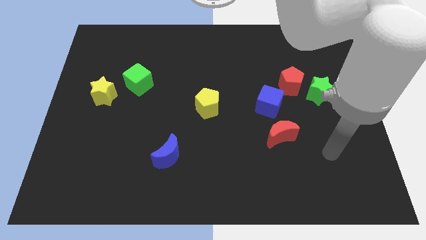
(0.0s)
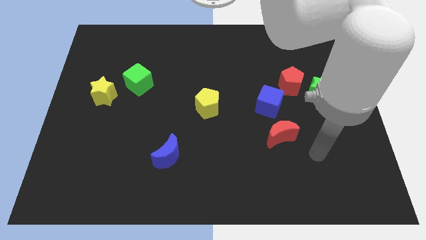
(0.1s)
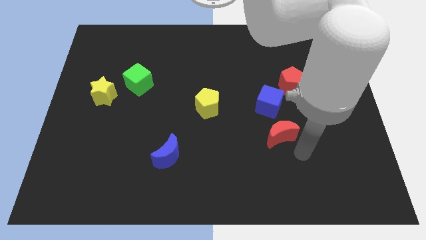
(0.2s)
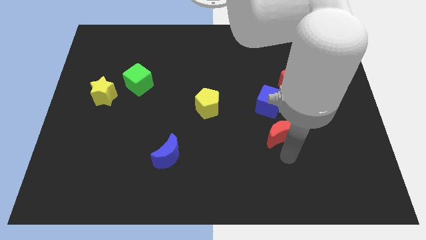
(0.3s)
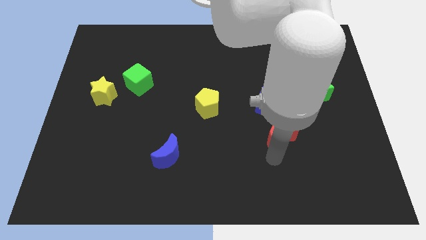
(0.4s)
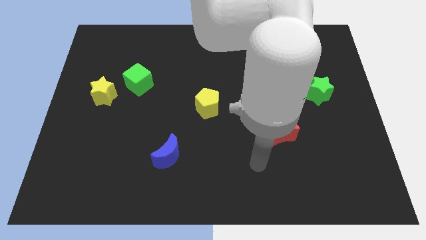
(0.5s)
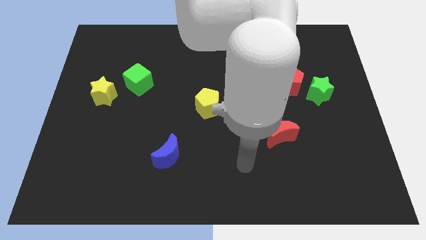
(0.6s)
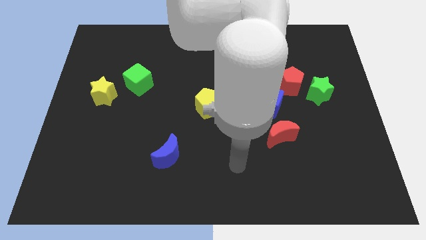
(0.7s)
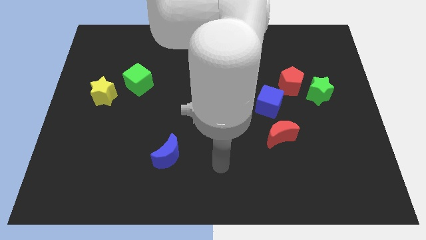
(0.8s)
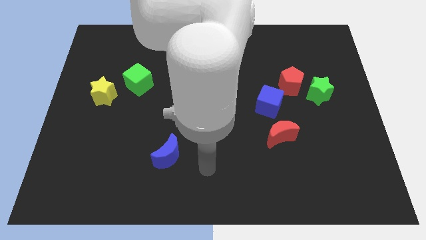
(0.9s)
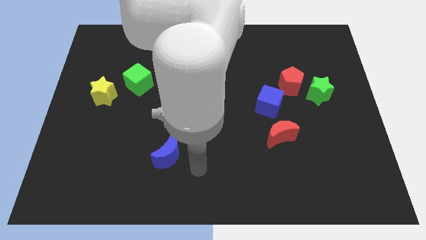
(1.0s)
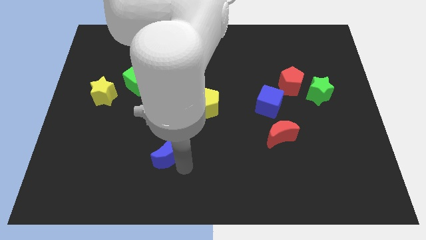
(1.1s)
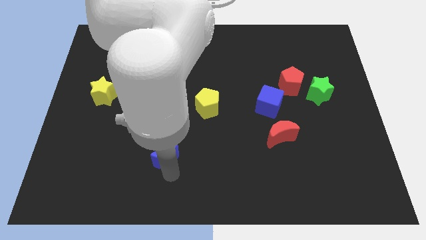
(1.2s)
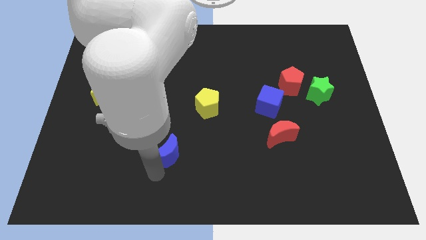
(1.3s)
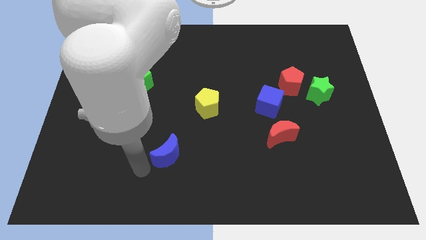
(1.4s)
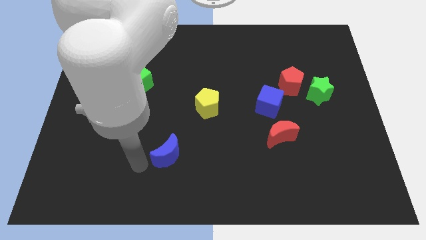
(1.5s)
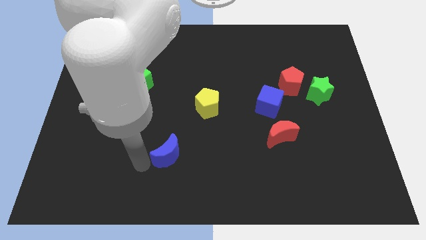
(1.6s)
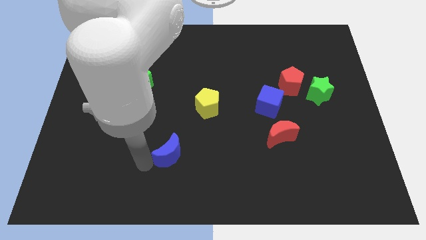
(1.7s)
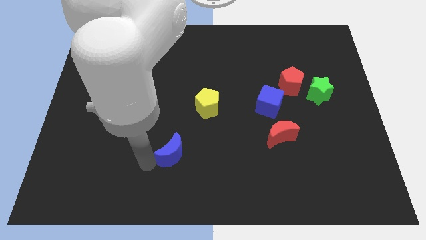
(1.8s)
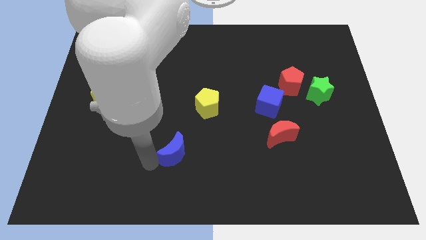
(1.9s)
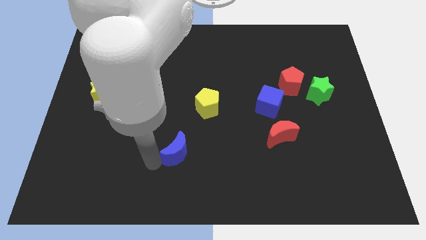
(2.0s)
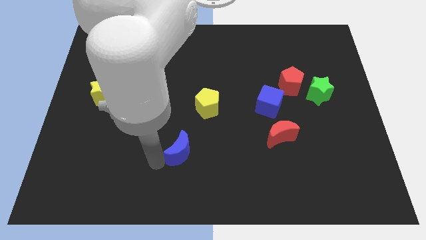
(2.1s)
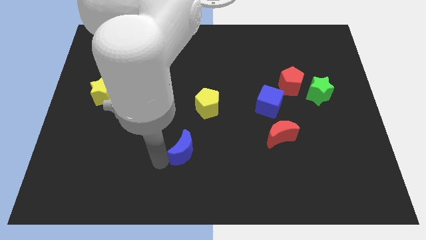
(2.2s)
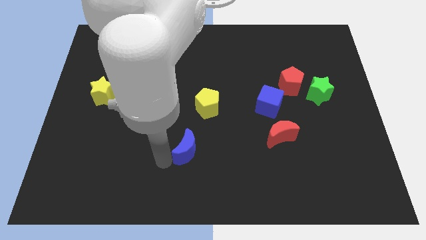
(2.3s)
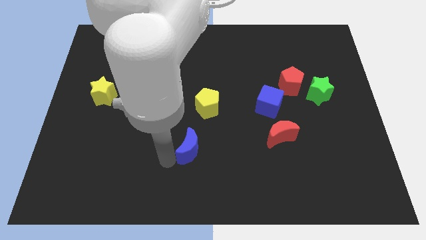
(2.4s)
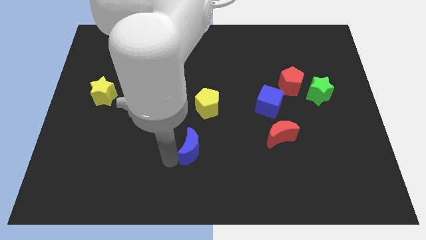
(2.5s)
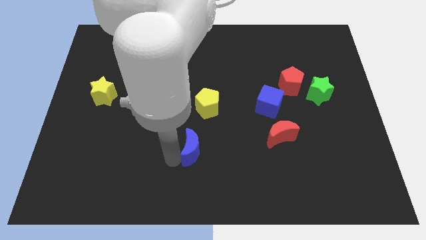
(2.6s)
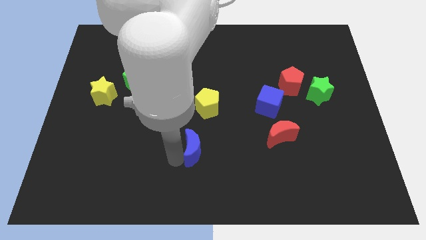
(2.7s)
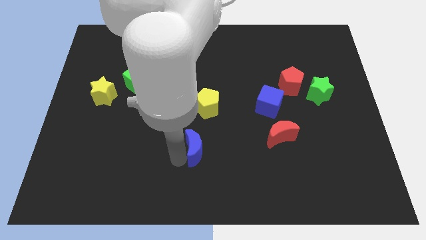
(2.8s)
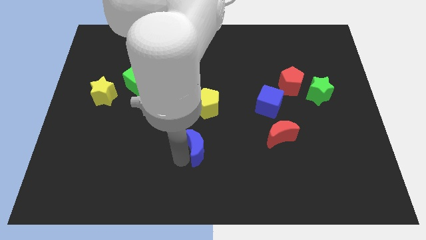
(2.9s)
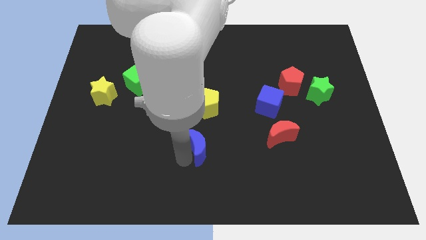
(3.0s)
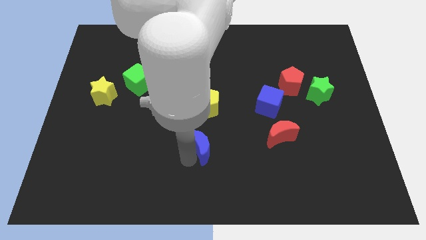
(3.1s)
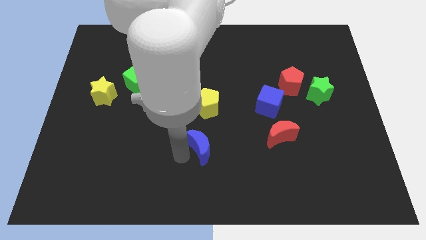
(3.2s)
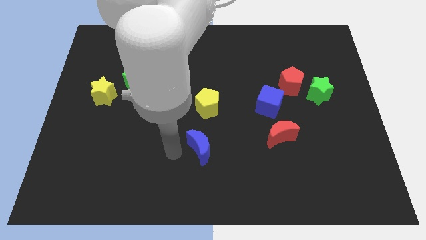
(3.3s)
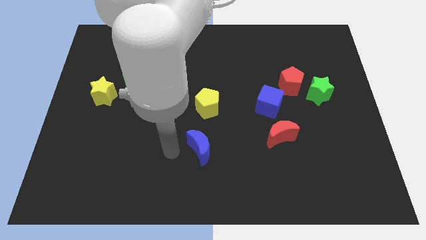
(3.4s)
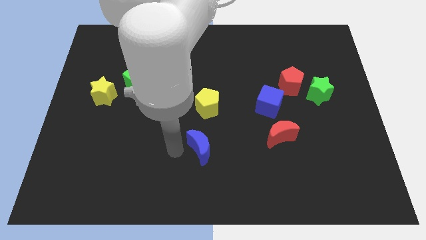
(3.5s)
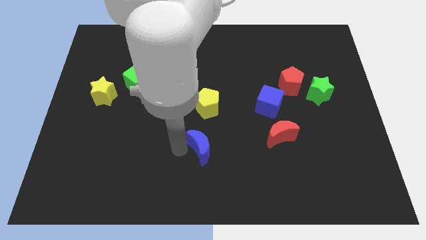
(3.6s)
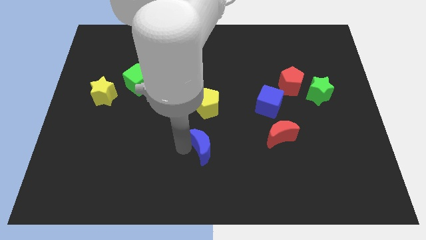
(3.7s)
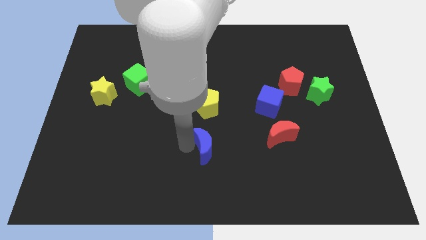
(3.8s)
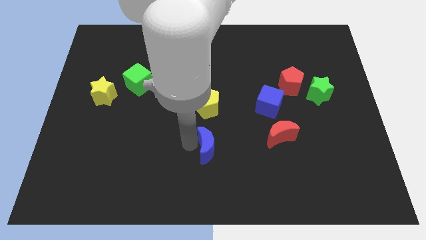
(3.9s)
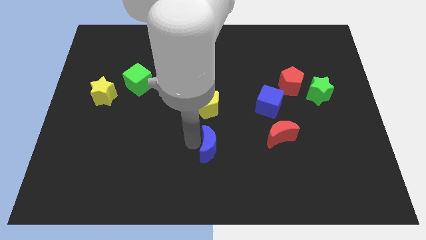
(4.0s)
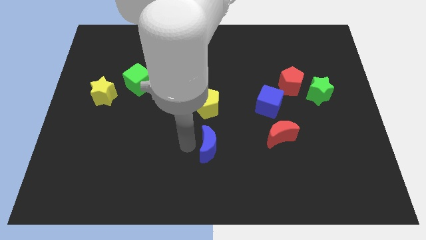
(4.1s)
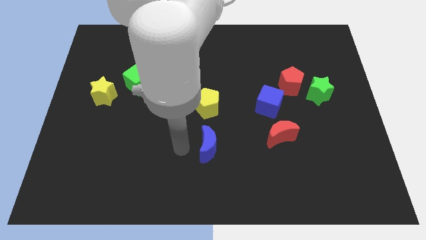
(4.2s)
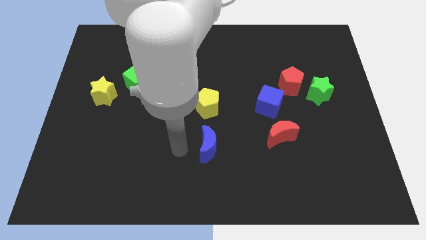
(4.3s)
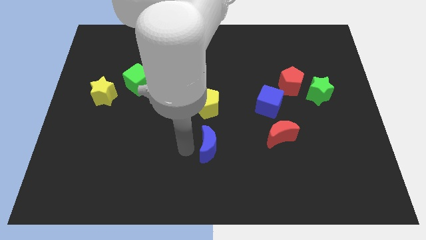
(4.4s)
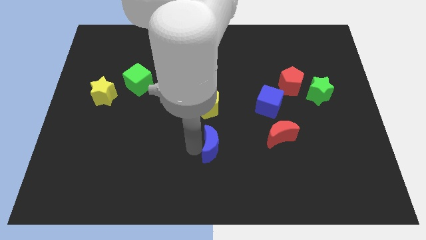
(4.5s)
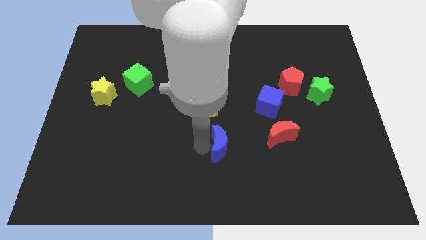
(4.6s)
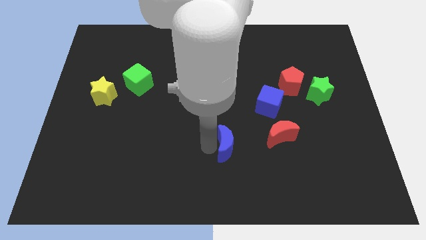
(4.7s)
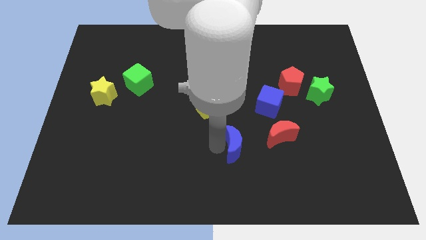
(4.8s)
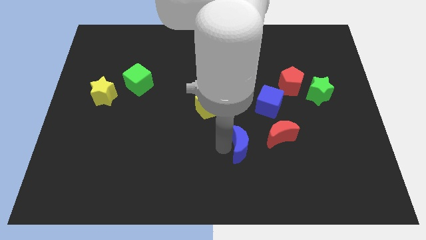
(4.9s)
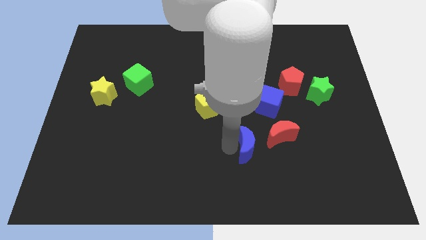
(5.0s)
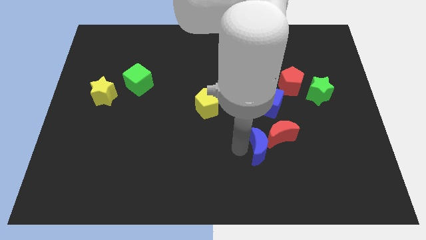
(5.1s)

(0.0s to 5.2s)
slide the blue moon towards the red moon

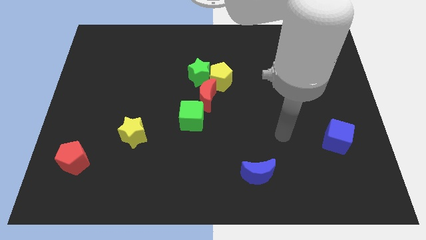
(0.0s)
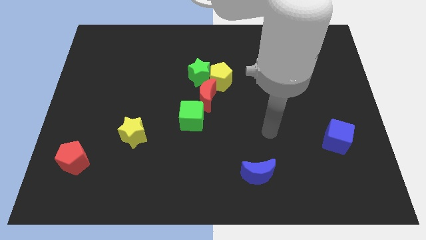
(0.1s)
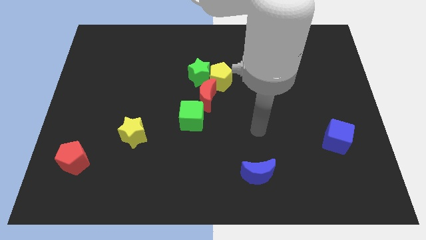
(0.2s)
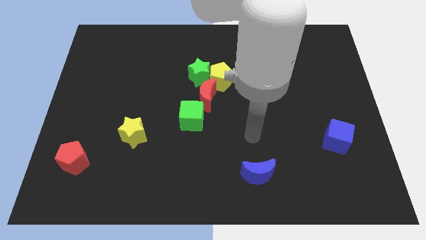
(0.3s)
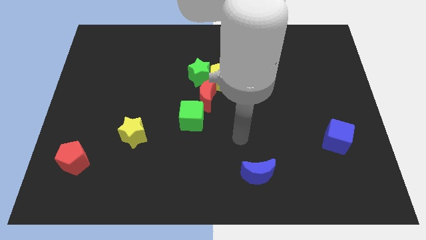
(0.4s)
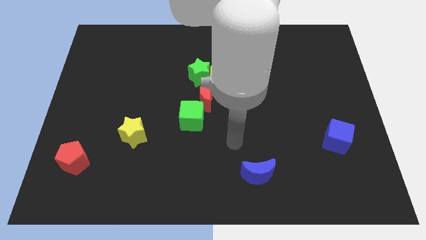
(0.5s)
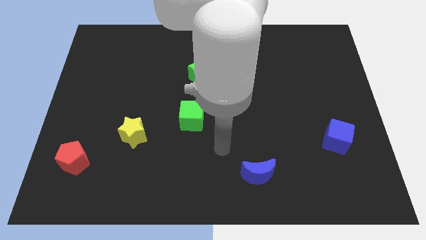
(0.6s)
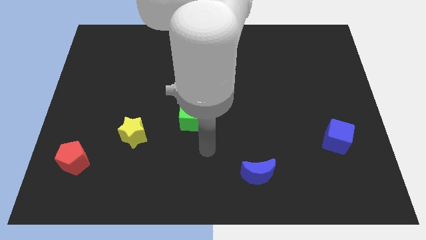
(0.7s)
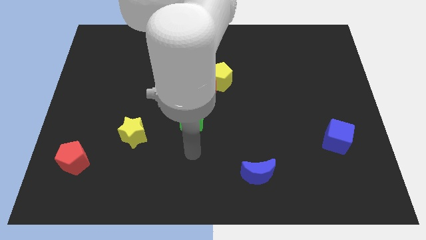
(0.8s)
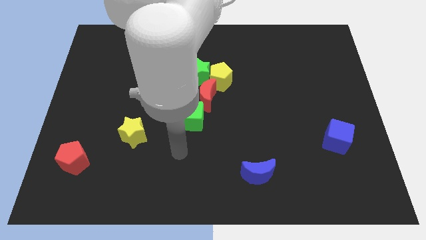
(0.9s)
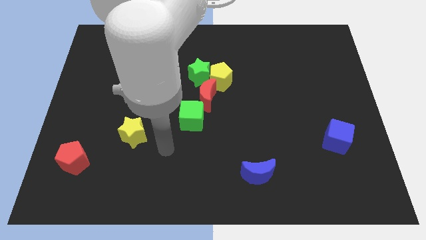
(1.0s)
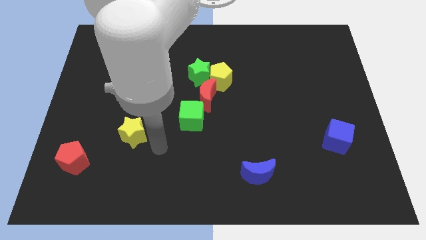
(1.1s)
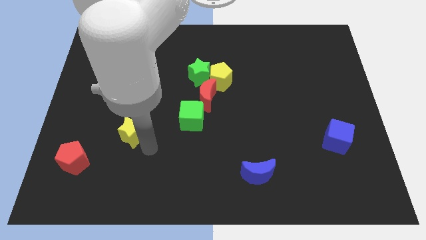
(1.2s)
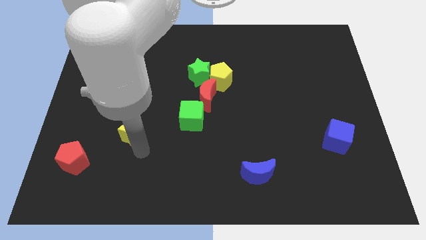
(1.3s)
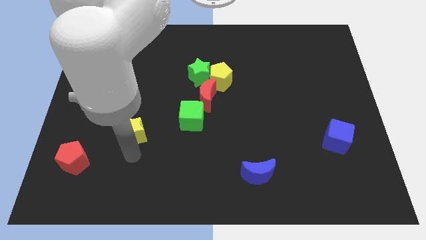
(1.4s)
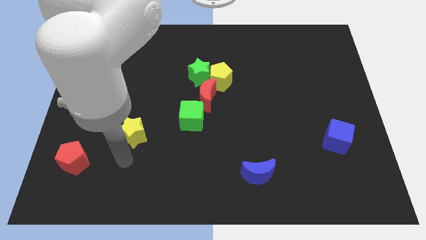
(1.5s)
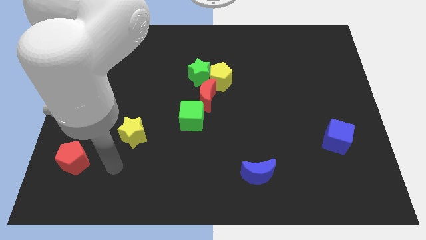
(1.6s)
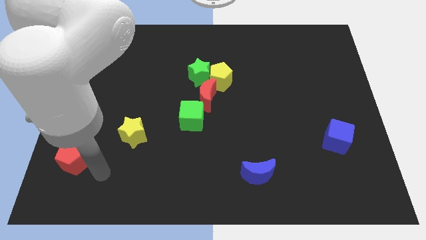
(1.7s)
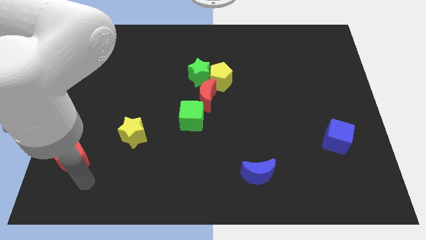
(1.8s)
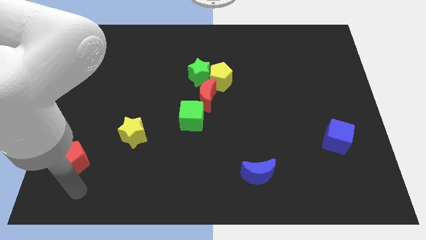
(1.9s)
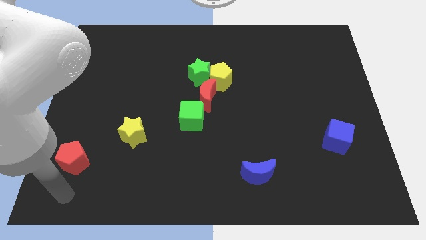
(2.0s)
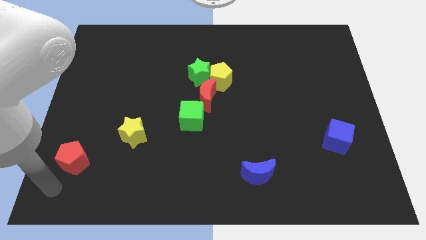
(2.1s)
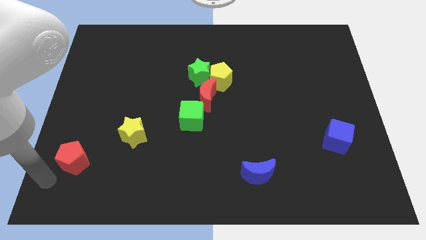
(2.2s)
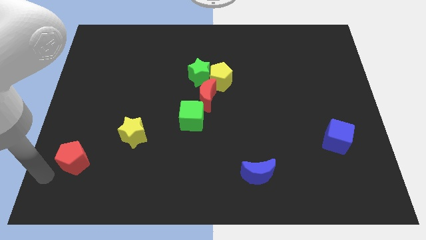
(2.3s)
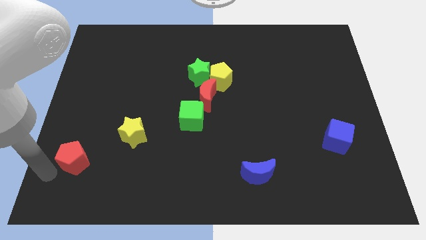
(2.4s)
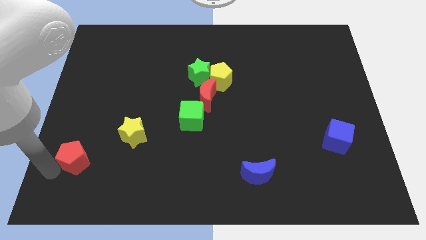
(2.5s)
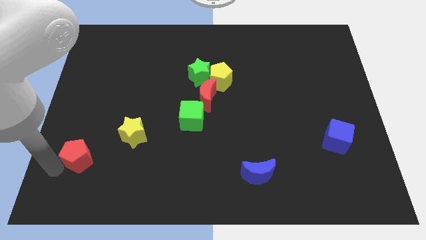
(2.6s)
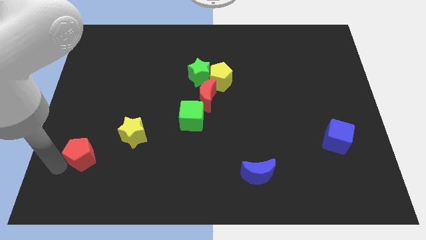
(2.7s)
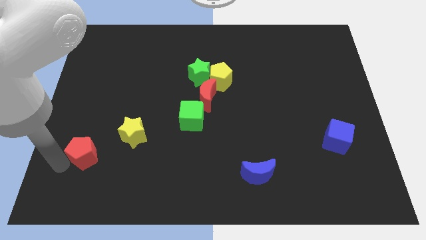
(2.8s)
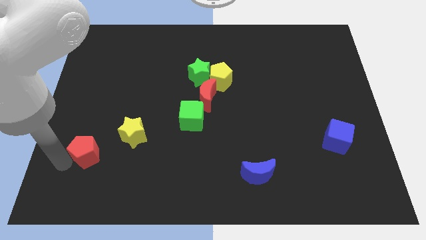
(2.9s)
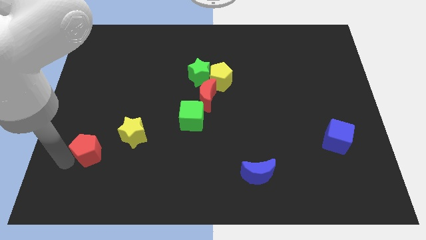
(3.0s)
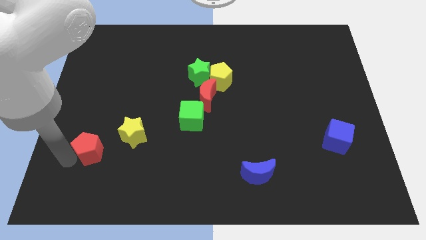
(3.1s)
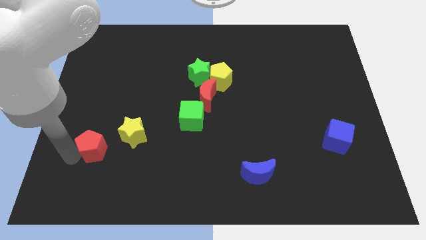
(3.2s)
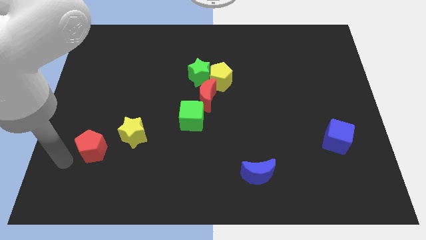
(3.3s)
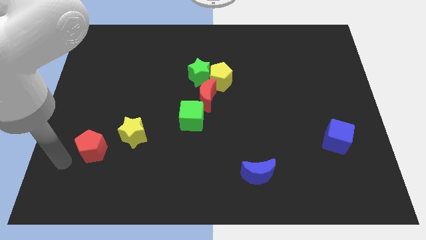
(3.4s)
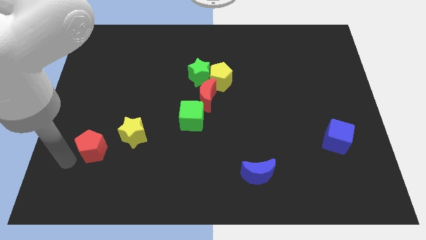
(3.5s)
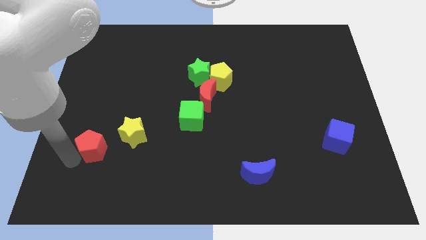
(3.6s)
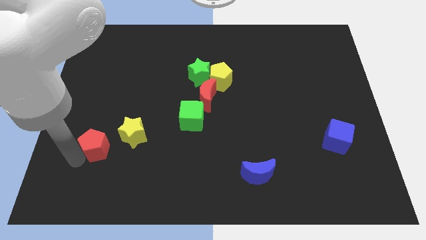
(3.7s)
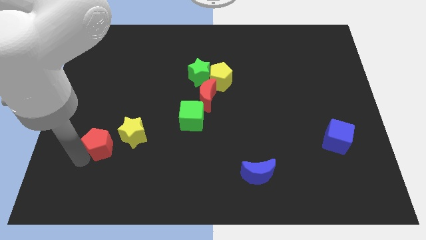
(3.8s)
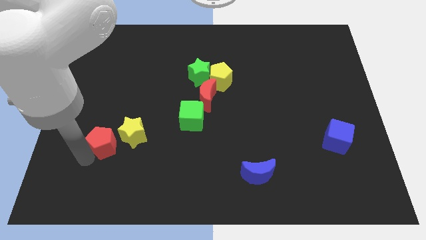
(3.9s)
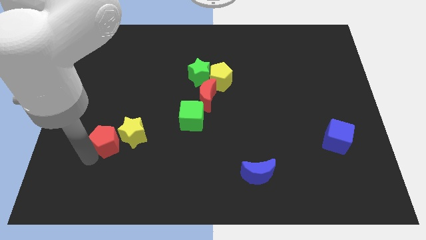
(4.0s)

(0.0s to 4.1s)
slide the red pentagon to the yellow star
